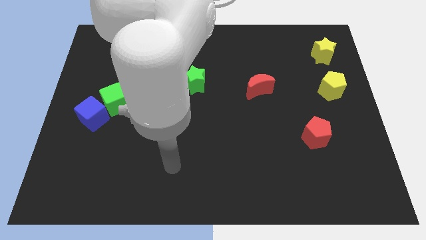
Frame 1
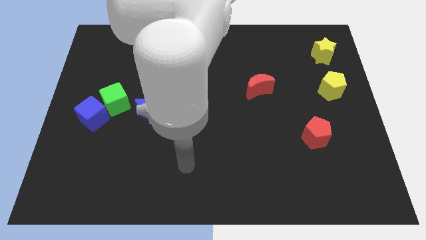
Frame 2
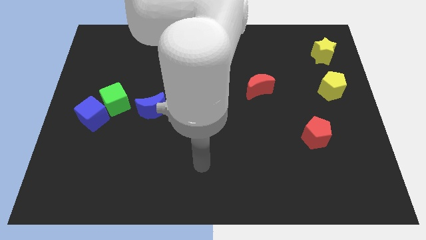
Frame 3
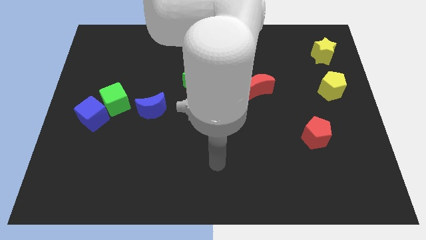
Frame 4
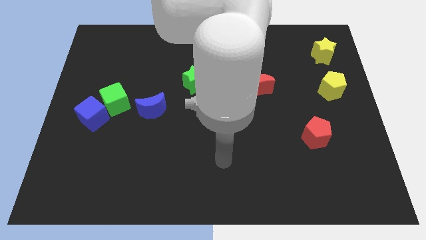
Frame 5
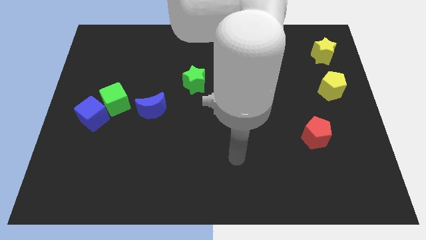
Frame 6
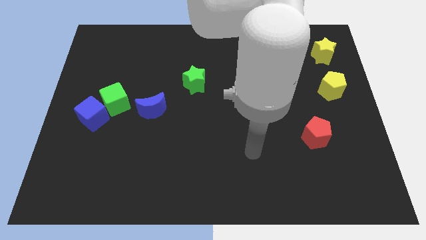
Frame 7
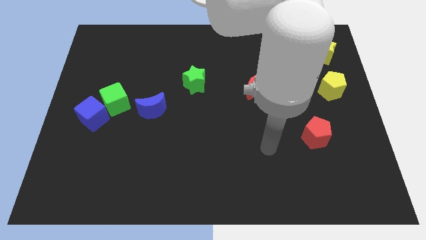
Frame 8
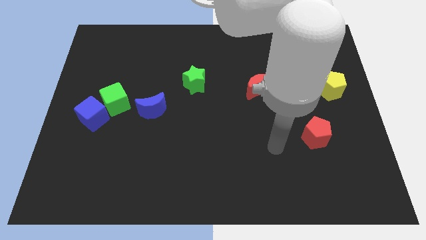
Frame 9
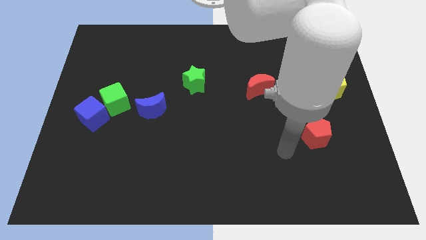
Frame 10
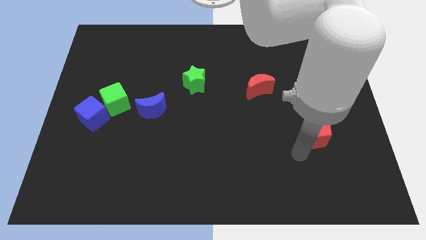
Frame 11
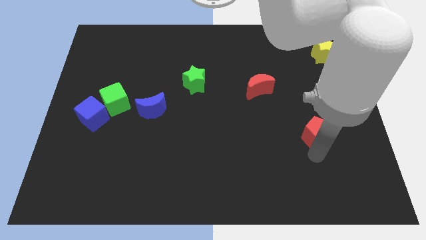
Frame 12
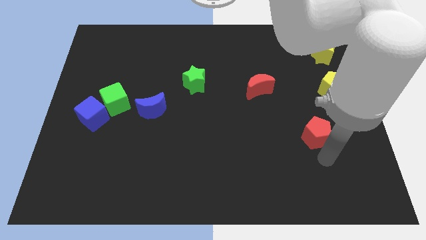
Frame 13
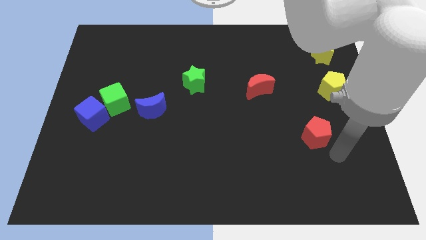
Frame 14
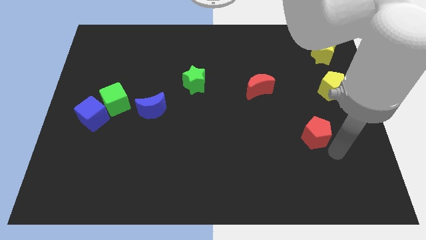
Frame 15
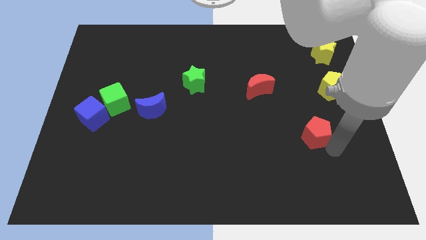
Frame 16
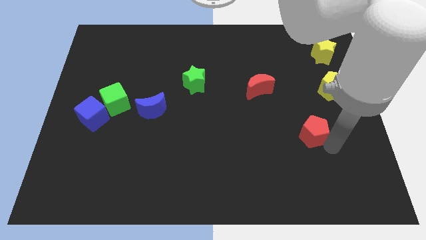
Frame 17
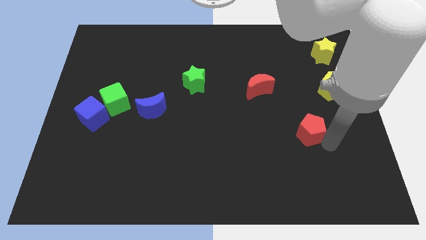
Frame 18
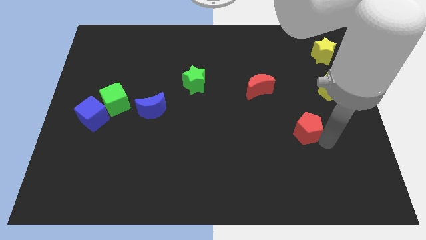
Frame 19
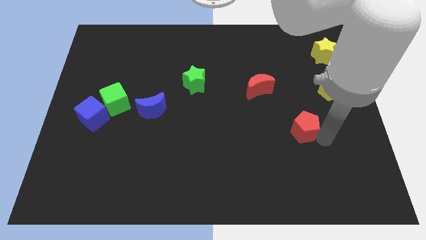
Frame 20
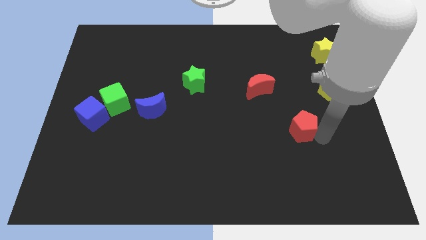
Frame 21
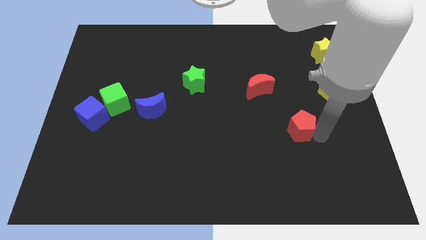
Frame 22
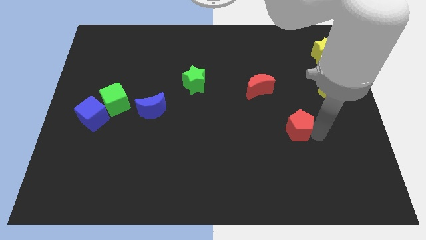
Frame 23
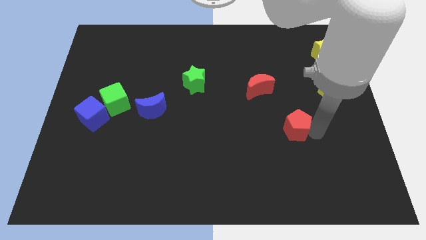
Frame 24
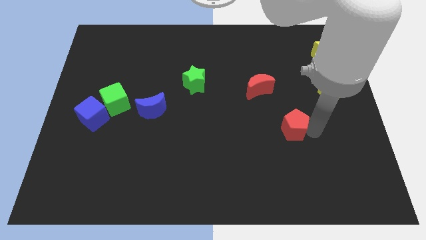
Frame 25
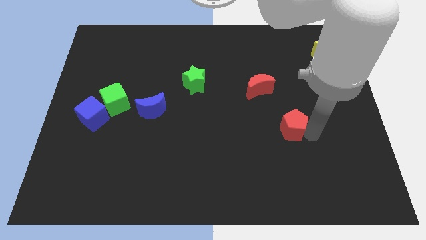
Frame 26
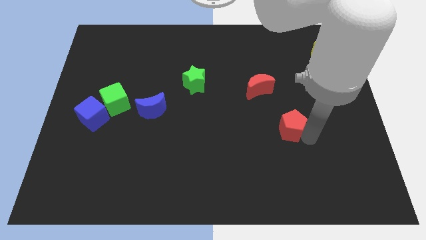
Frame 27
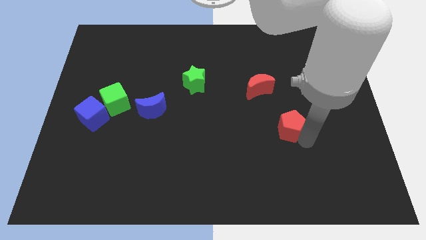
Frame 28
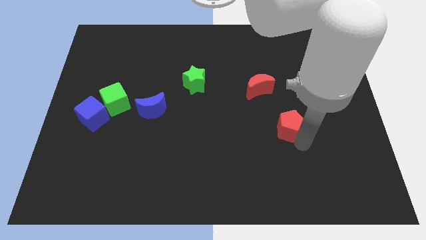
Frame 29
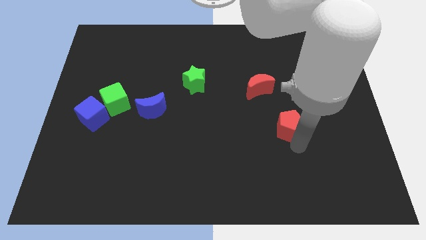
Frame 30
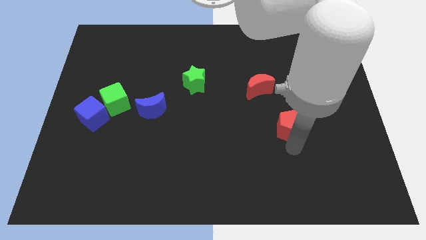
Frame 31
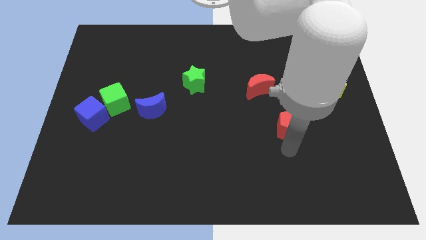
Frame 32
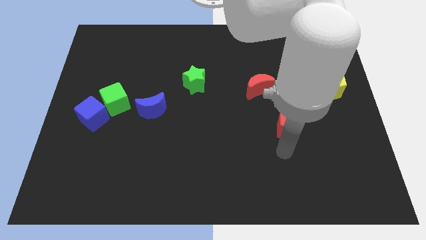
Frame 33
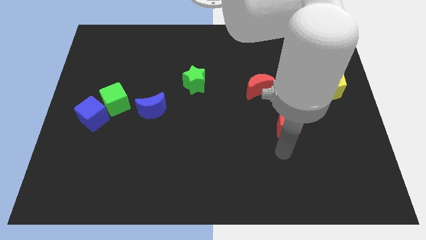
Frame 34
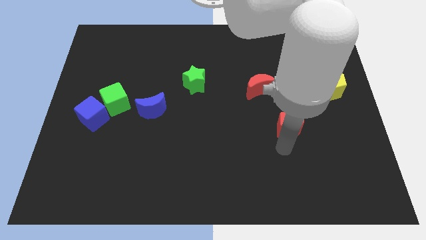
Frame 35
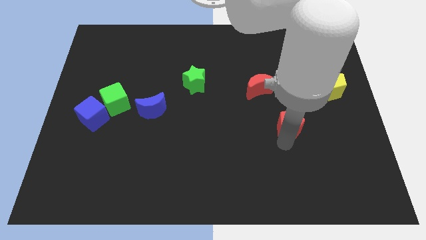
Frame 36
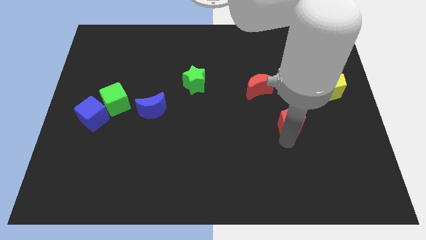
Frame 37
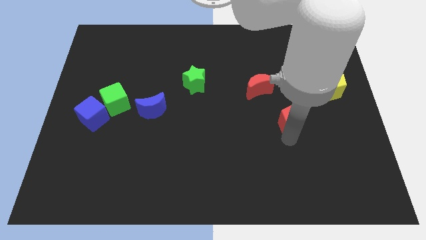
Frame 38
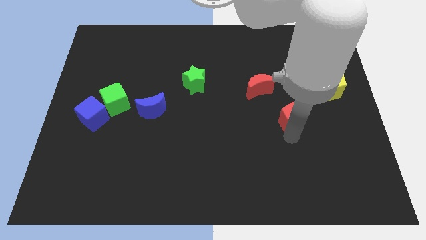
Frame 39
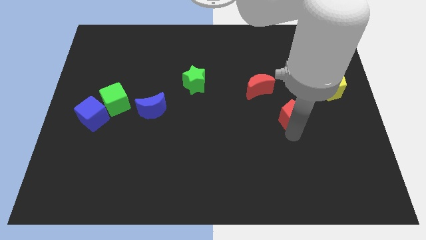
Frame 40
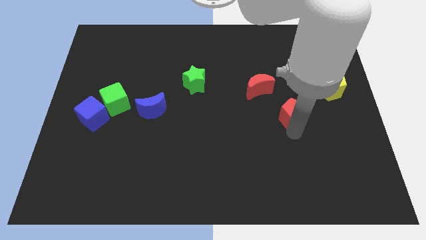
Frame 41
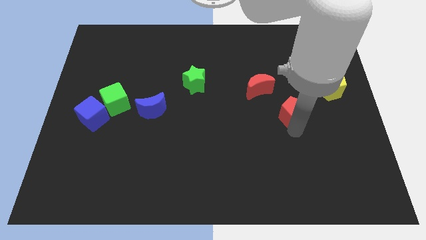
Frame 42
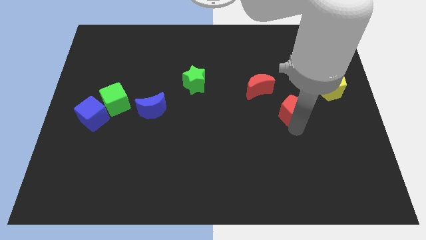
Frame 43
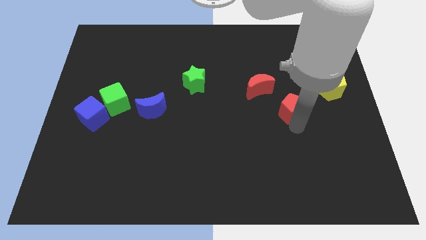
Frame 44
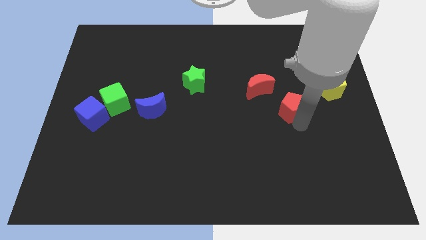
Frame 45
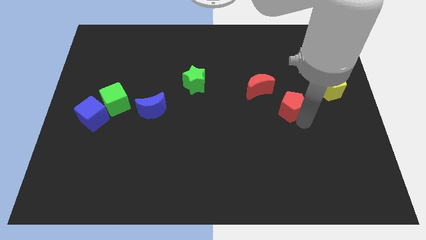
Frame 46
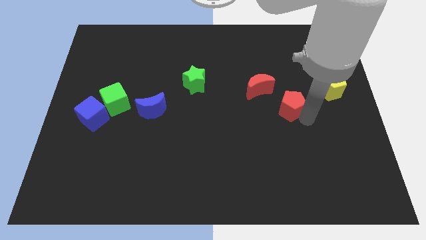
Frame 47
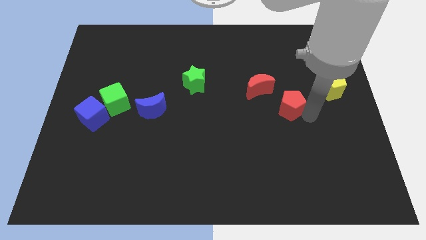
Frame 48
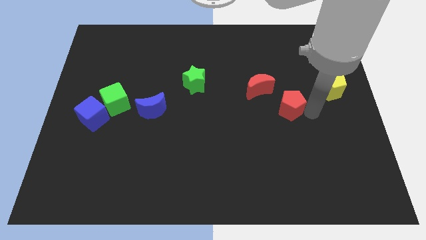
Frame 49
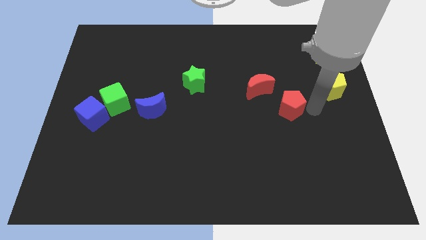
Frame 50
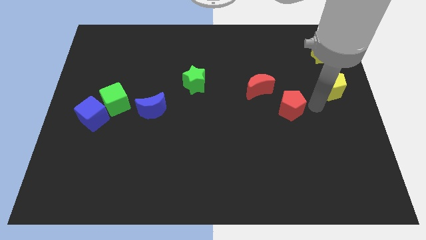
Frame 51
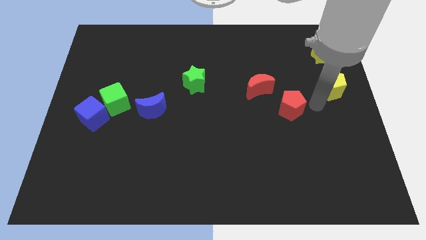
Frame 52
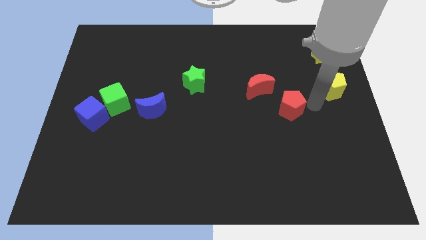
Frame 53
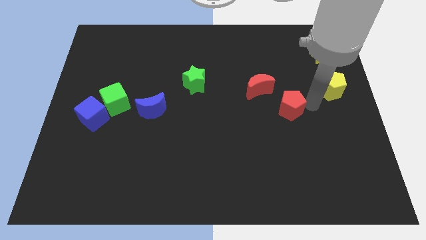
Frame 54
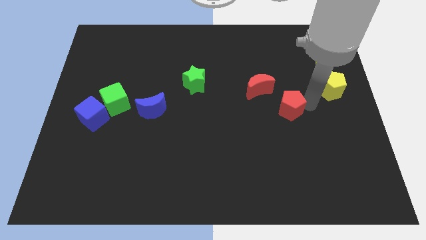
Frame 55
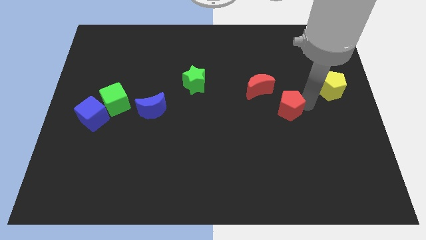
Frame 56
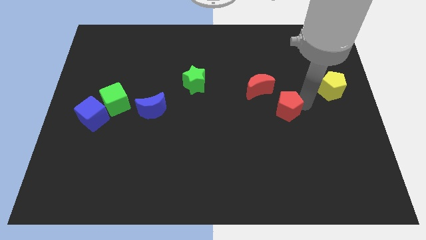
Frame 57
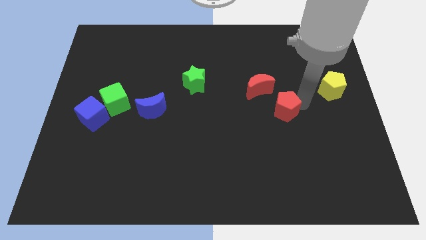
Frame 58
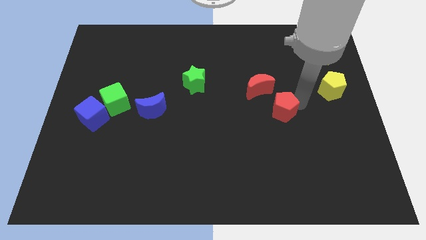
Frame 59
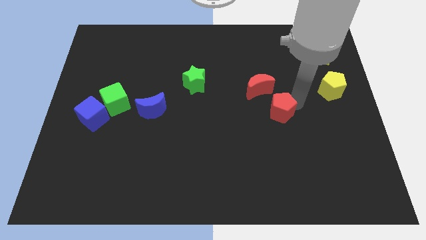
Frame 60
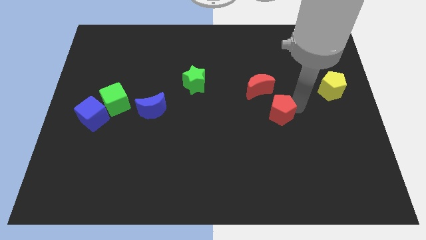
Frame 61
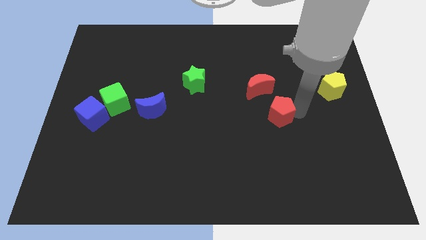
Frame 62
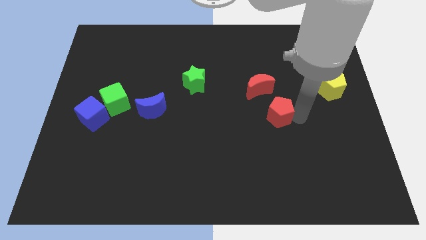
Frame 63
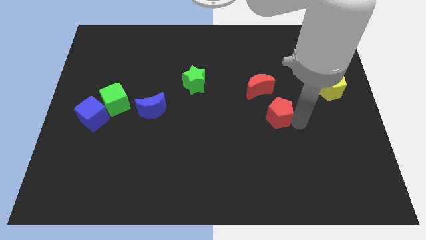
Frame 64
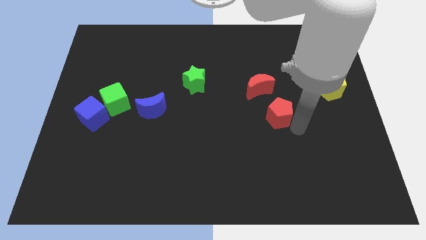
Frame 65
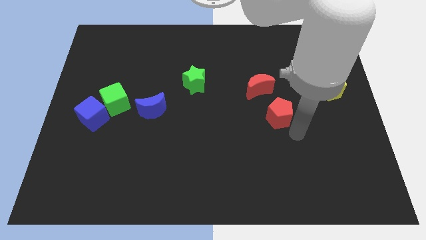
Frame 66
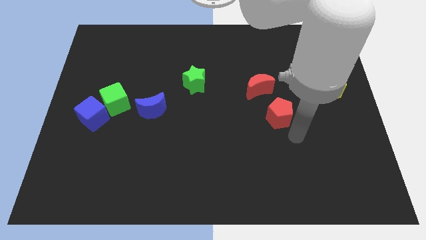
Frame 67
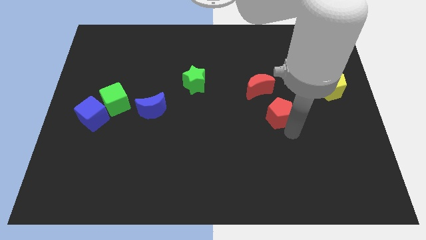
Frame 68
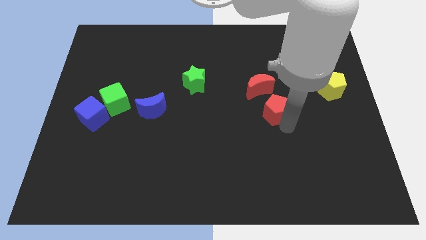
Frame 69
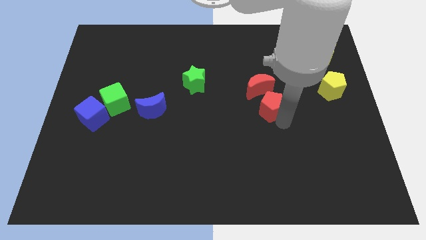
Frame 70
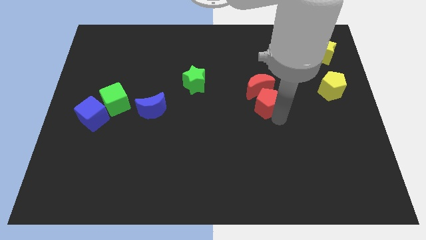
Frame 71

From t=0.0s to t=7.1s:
move the red pentagon to the red moon
